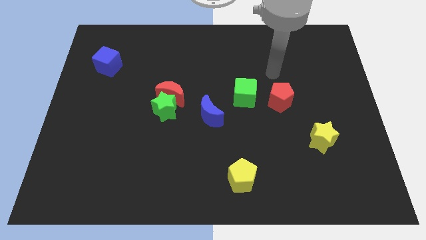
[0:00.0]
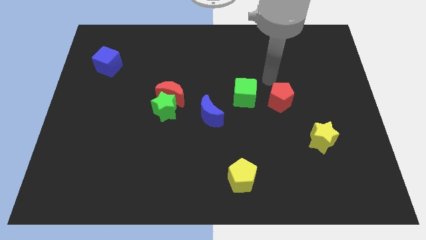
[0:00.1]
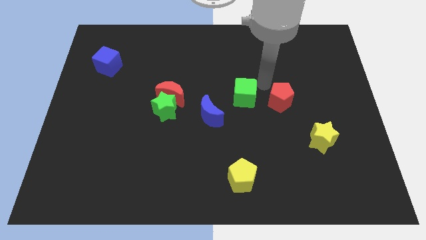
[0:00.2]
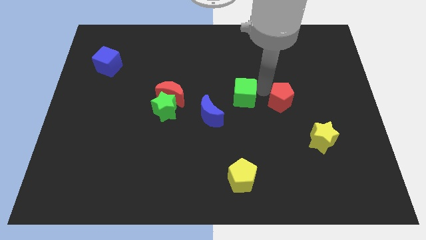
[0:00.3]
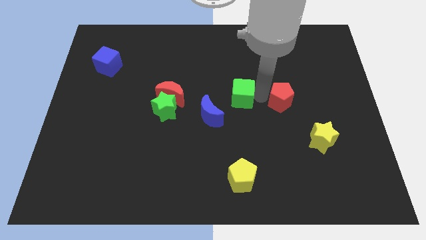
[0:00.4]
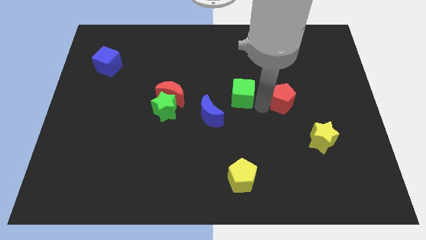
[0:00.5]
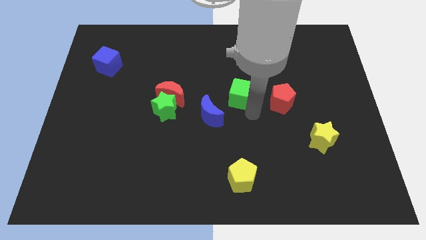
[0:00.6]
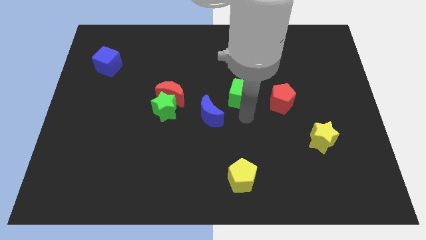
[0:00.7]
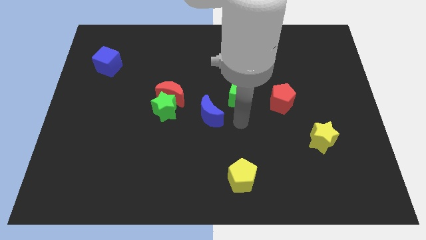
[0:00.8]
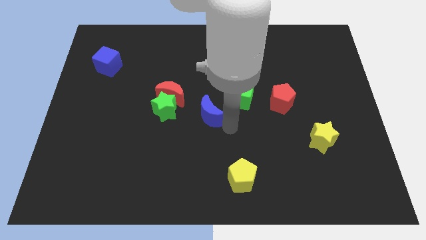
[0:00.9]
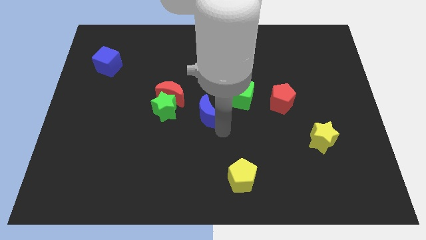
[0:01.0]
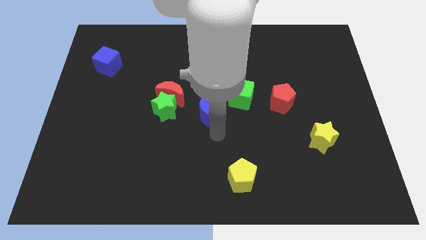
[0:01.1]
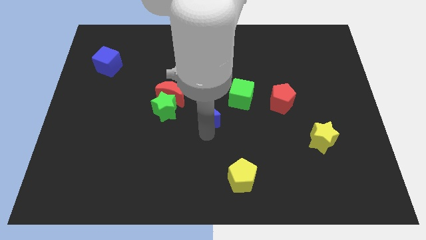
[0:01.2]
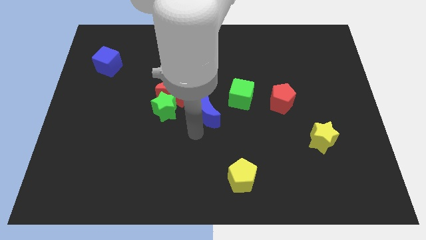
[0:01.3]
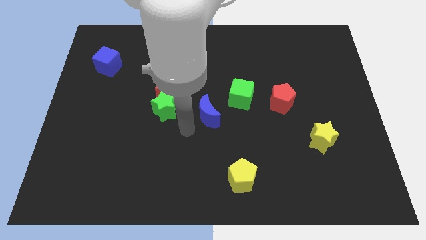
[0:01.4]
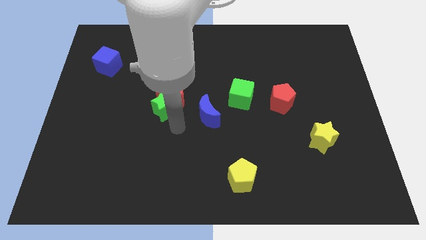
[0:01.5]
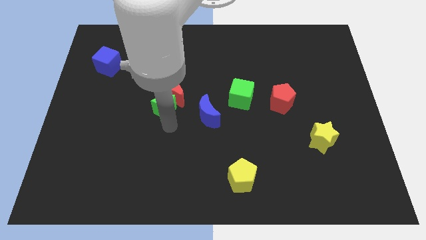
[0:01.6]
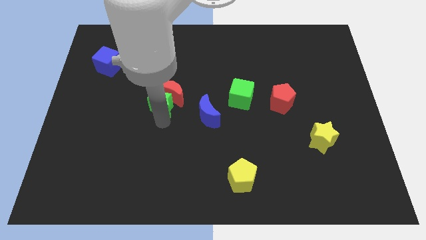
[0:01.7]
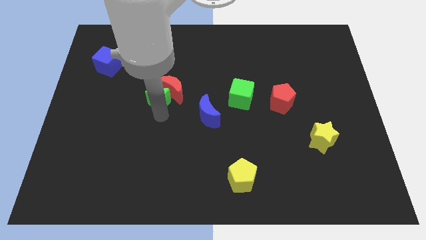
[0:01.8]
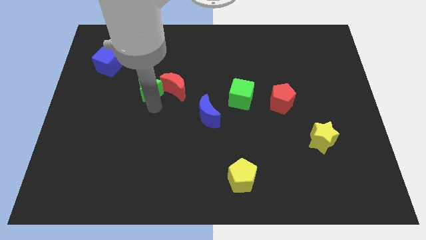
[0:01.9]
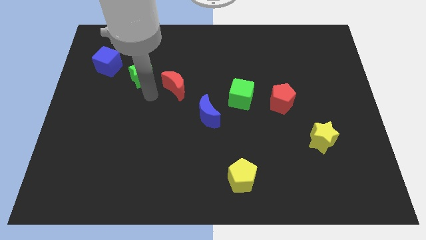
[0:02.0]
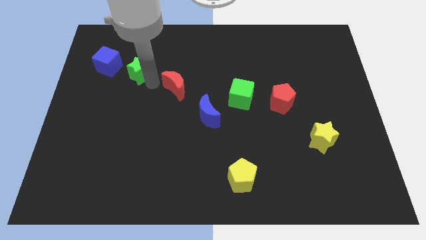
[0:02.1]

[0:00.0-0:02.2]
separate the red moon from the green star

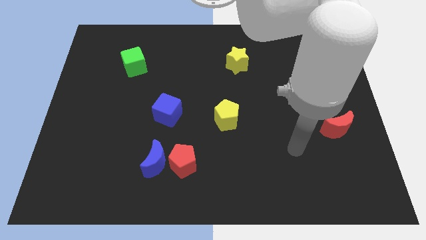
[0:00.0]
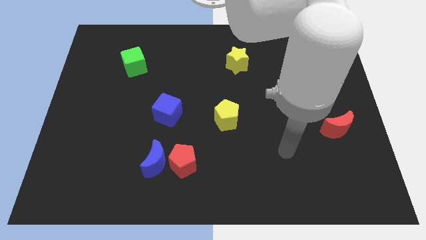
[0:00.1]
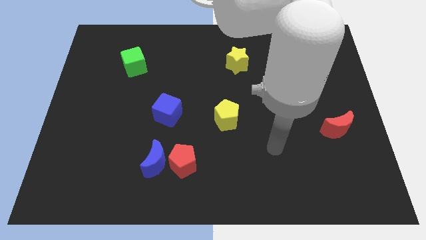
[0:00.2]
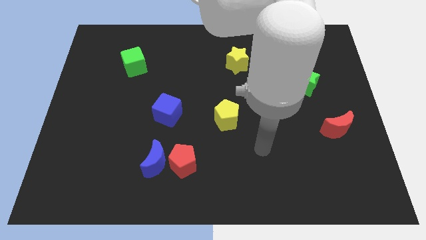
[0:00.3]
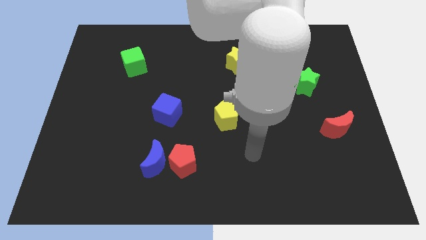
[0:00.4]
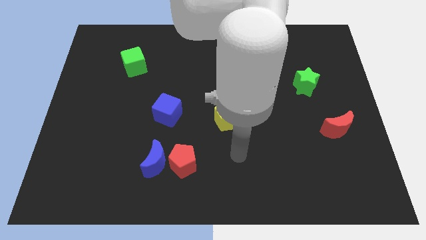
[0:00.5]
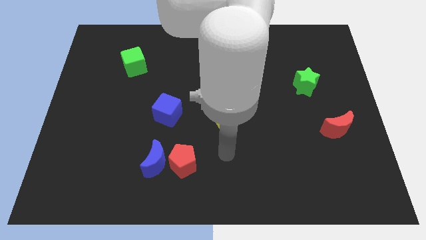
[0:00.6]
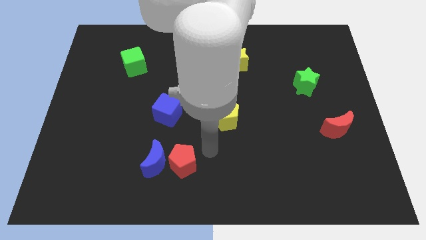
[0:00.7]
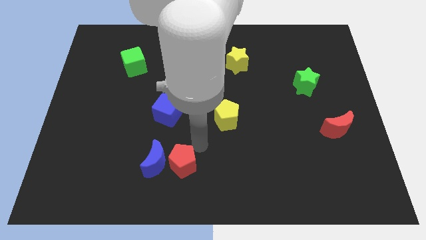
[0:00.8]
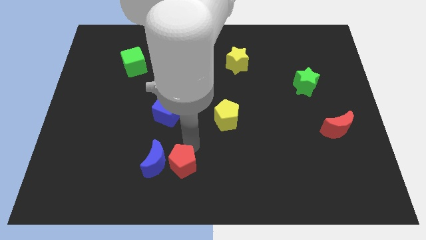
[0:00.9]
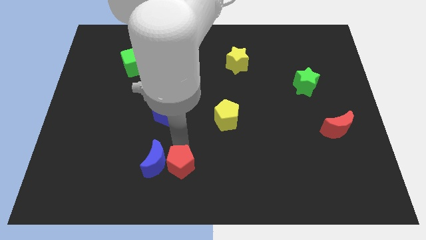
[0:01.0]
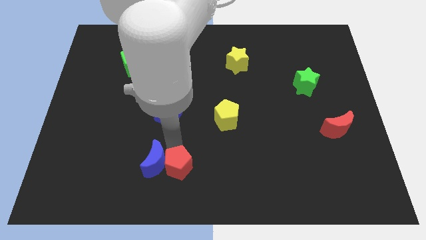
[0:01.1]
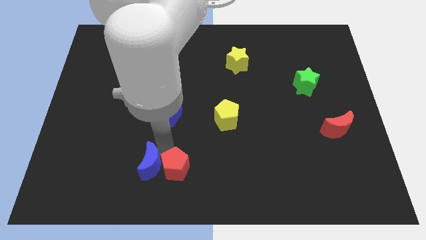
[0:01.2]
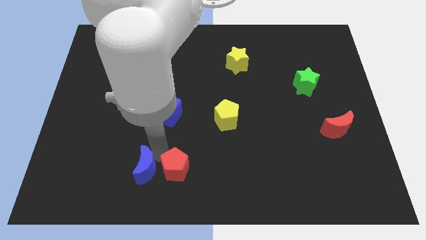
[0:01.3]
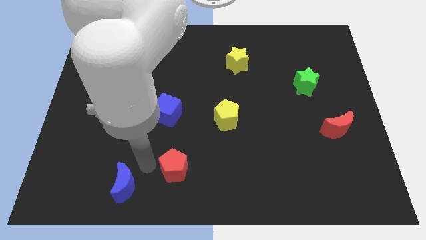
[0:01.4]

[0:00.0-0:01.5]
move the red pentagon away from the blue moon

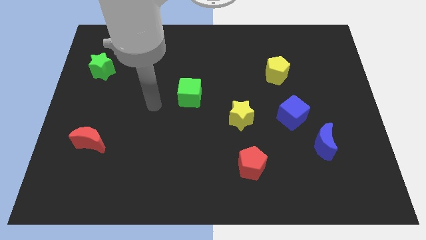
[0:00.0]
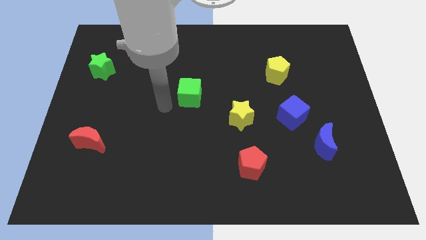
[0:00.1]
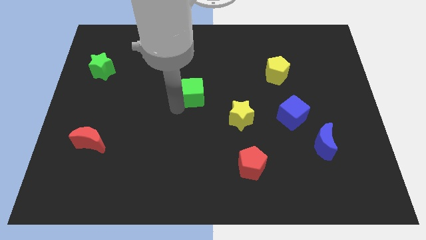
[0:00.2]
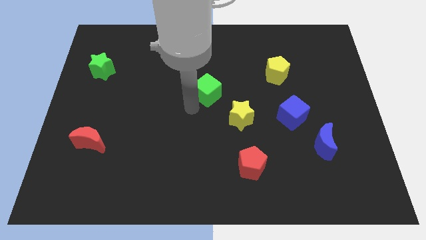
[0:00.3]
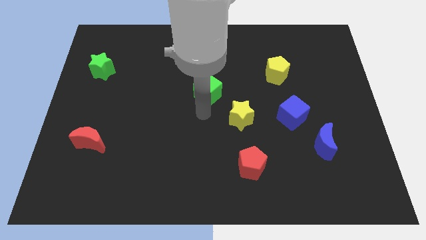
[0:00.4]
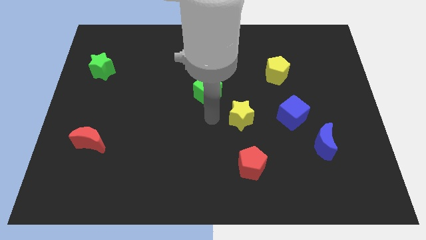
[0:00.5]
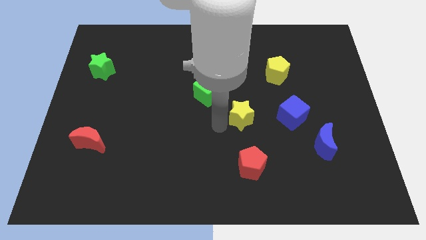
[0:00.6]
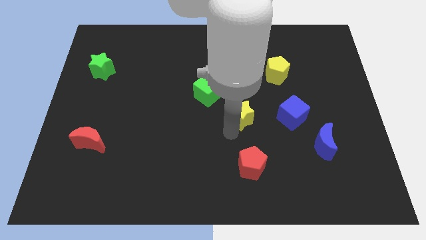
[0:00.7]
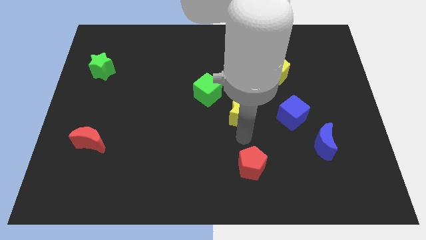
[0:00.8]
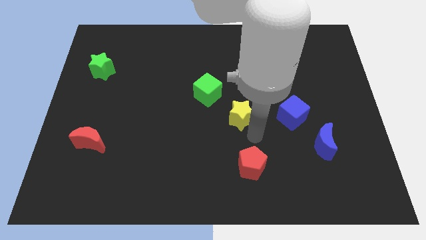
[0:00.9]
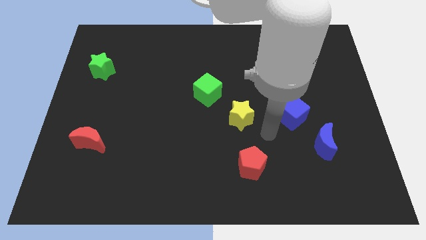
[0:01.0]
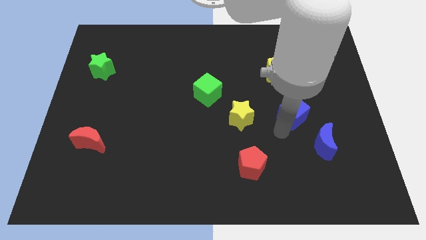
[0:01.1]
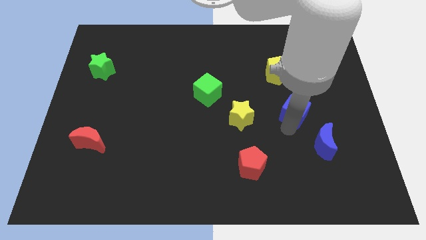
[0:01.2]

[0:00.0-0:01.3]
pull the blue moon apart from the blue cube

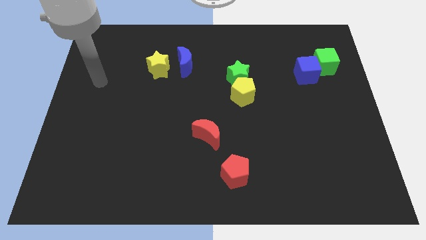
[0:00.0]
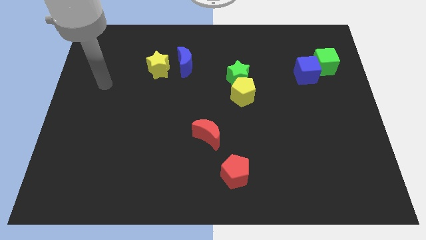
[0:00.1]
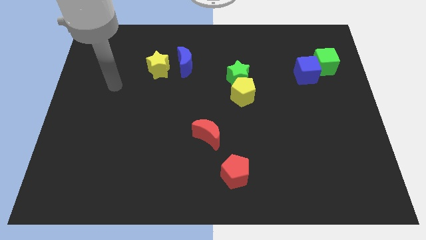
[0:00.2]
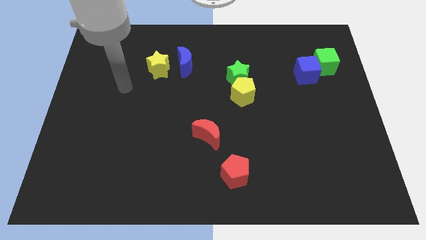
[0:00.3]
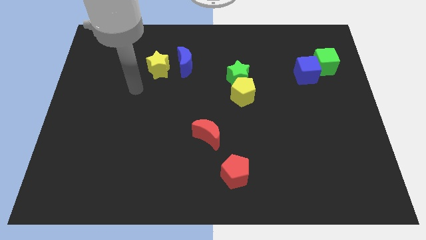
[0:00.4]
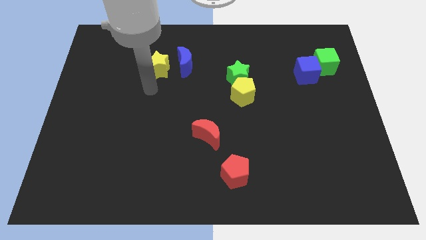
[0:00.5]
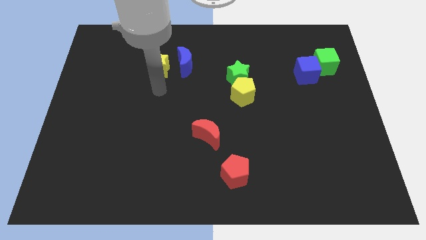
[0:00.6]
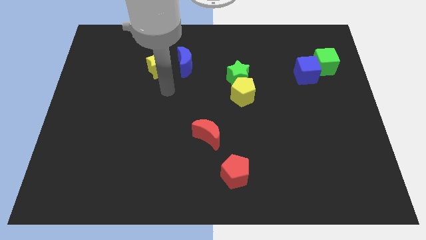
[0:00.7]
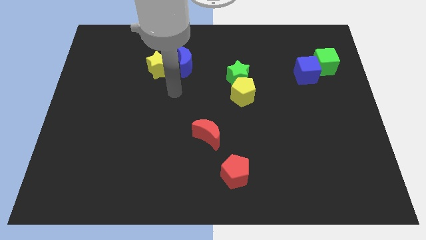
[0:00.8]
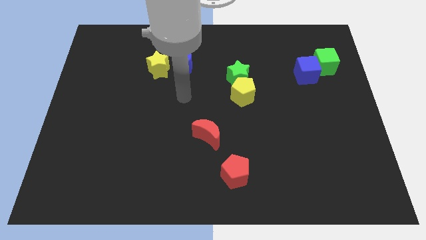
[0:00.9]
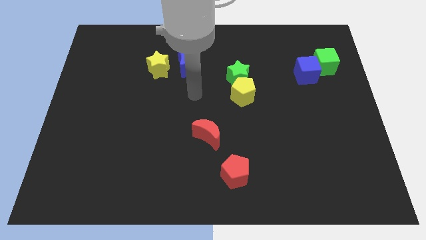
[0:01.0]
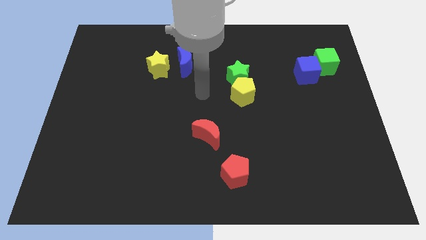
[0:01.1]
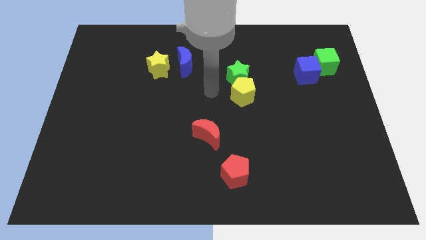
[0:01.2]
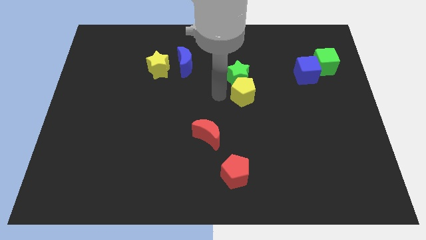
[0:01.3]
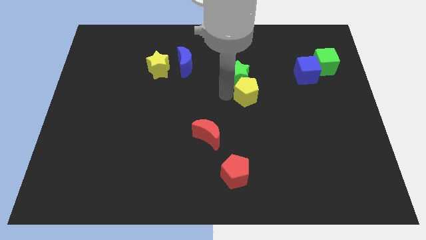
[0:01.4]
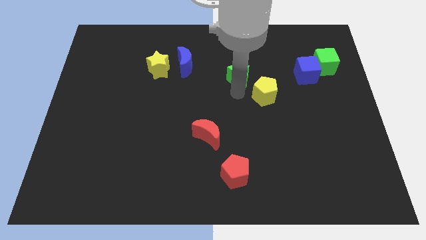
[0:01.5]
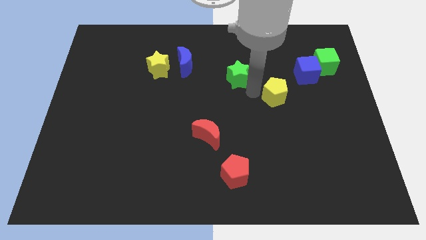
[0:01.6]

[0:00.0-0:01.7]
pull the green star apart from the yellow pentagon

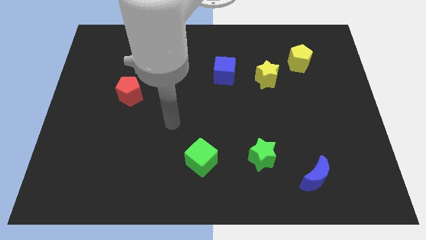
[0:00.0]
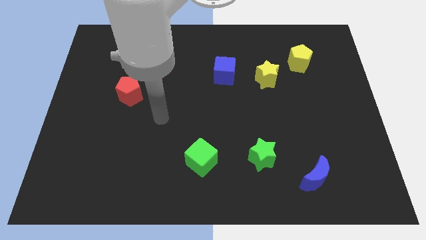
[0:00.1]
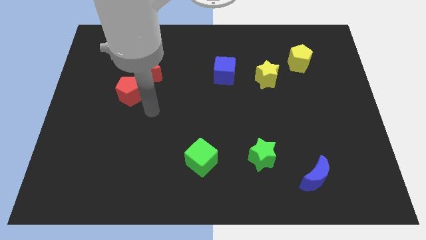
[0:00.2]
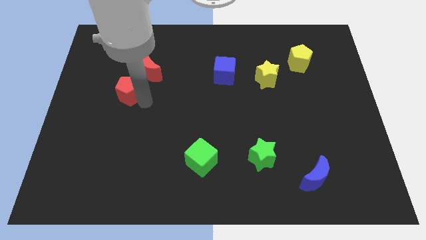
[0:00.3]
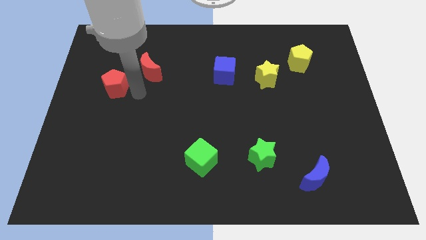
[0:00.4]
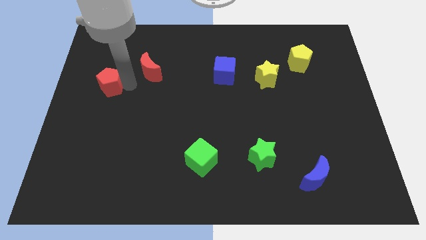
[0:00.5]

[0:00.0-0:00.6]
separate the red moon from the red pentagon

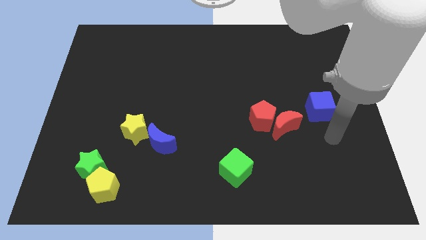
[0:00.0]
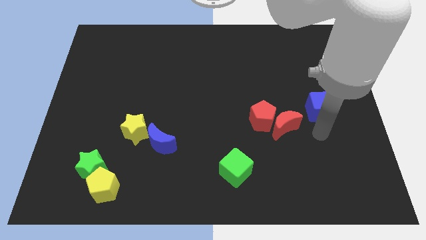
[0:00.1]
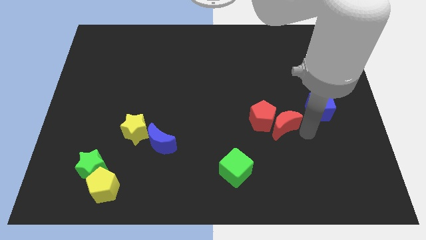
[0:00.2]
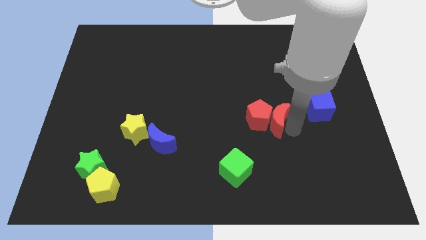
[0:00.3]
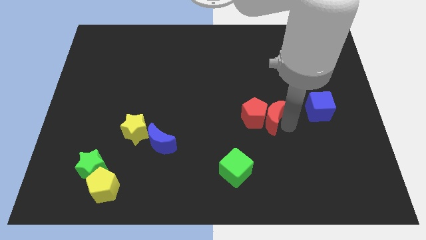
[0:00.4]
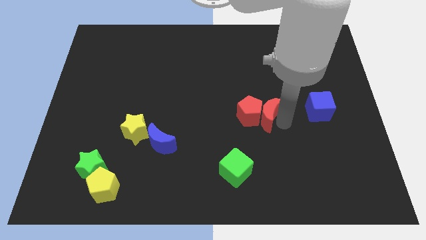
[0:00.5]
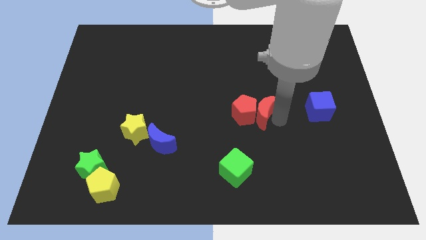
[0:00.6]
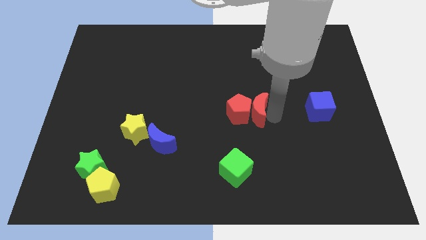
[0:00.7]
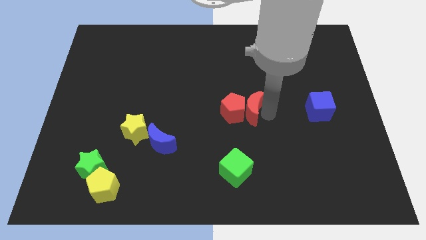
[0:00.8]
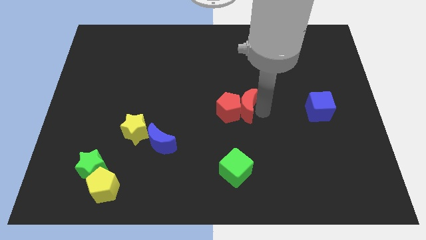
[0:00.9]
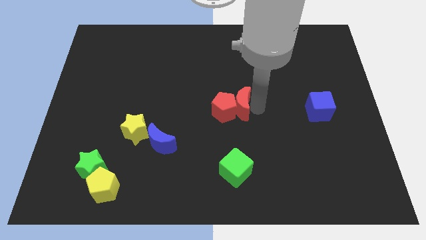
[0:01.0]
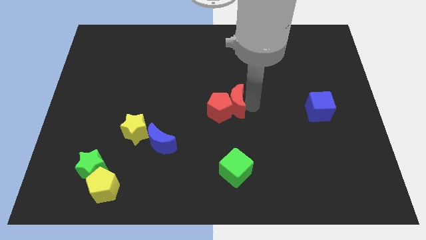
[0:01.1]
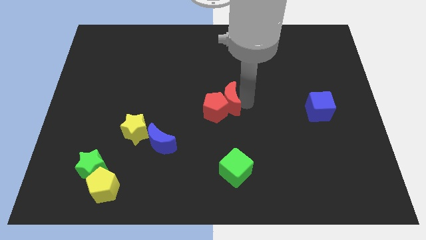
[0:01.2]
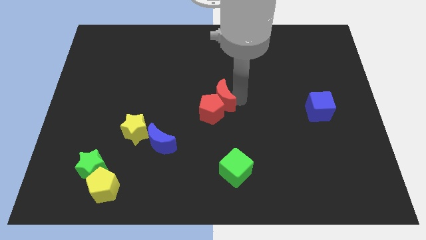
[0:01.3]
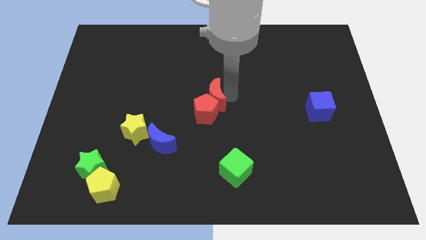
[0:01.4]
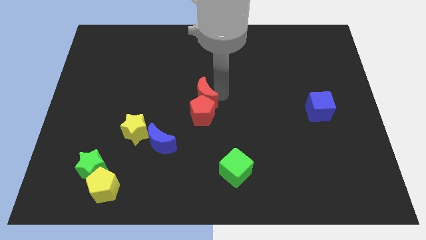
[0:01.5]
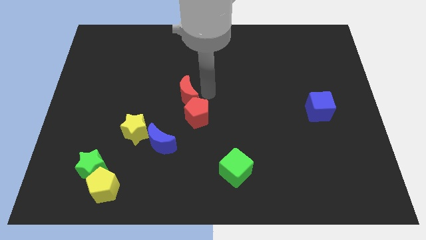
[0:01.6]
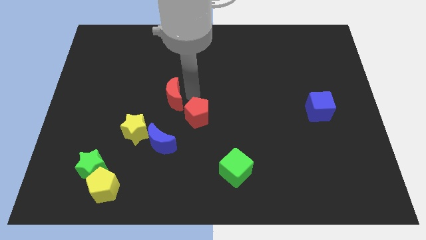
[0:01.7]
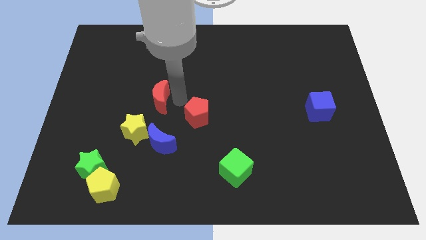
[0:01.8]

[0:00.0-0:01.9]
pull the red pentagon apart from the red moon

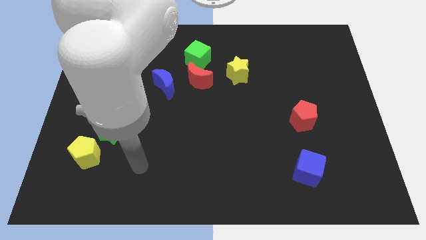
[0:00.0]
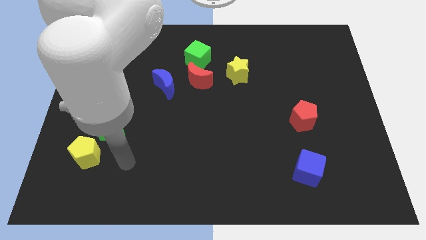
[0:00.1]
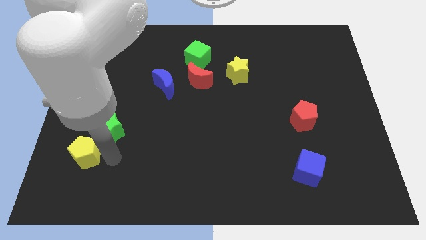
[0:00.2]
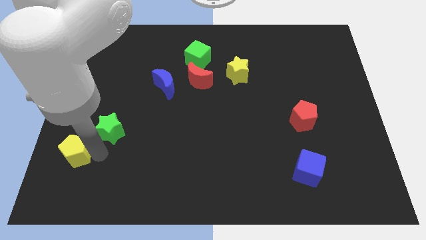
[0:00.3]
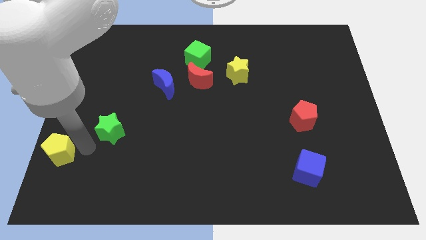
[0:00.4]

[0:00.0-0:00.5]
move the green star away from the yellow pentagon
